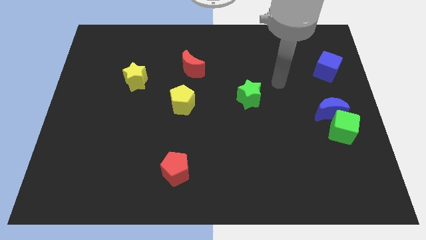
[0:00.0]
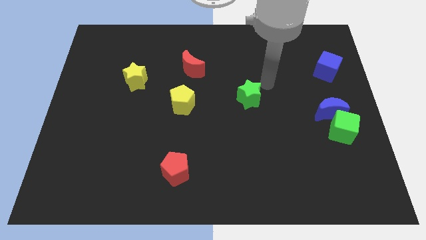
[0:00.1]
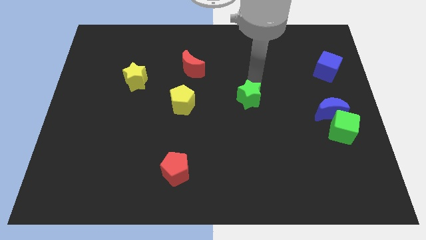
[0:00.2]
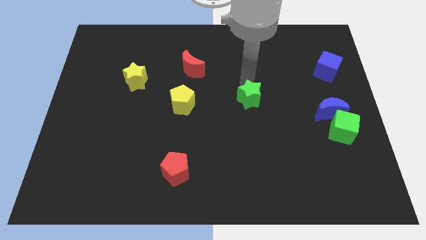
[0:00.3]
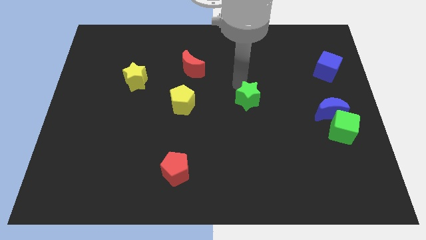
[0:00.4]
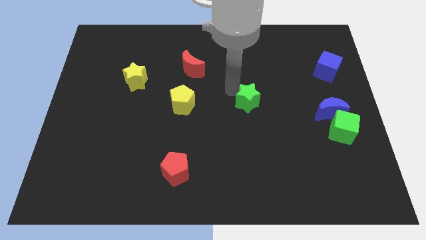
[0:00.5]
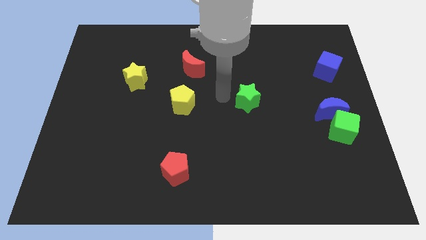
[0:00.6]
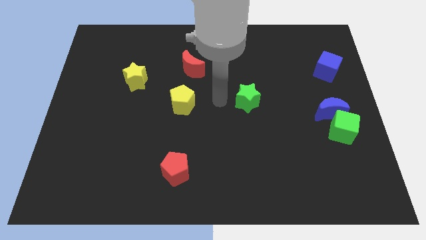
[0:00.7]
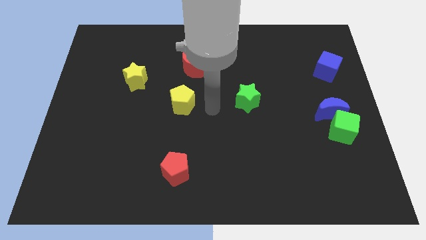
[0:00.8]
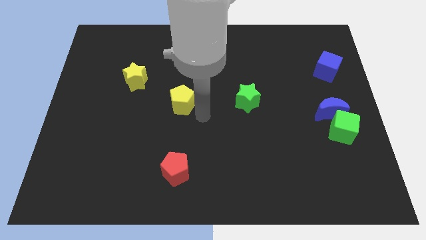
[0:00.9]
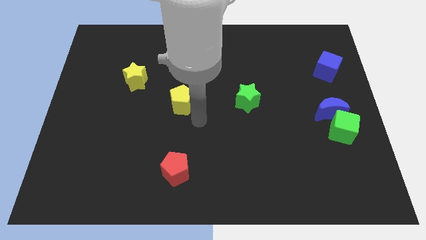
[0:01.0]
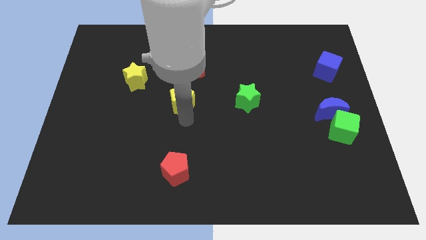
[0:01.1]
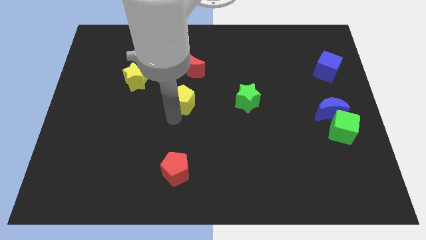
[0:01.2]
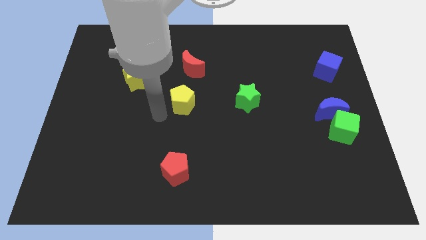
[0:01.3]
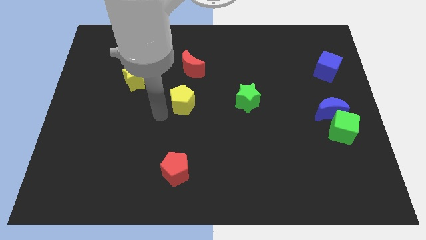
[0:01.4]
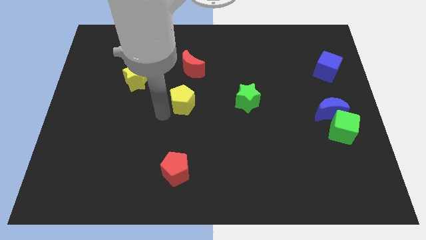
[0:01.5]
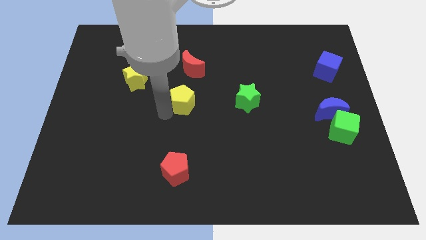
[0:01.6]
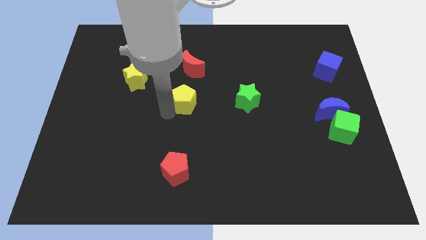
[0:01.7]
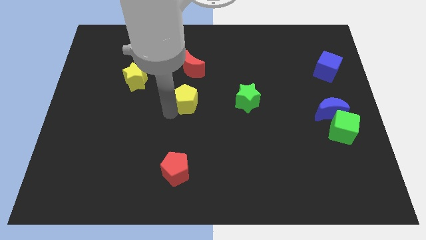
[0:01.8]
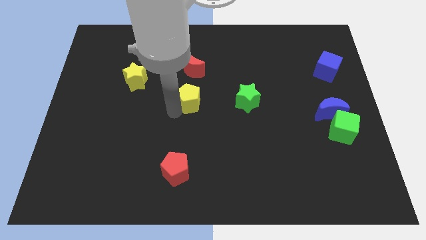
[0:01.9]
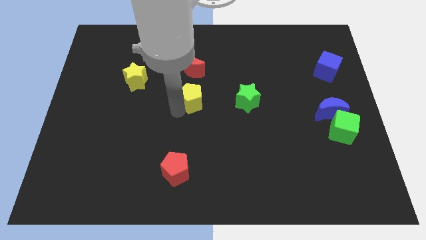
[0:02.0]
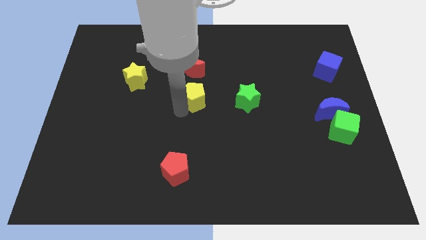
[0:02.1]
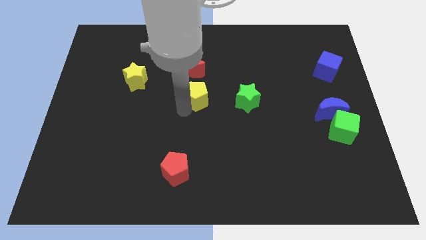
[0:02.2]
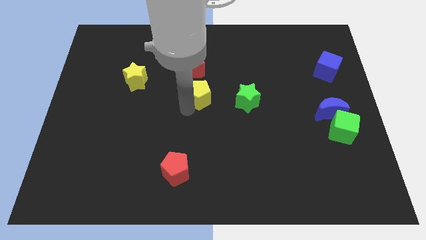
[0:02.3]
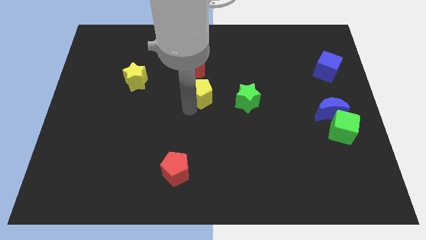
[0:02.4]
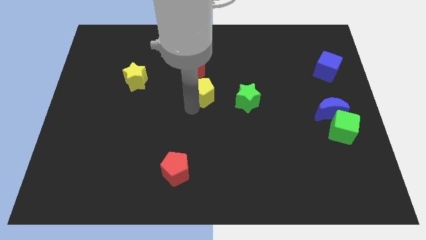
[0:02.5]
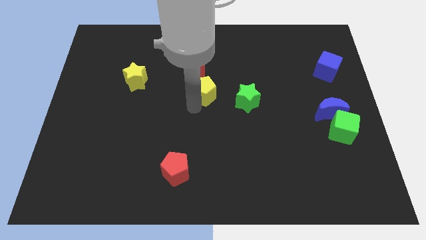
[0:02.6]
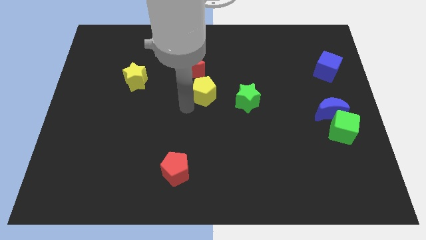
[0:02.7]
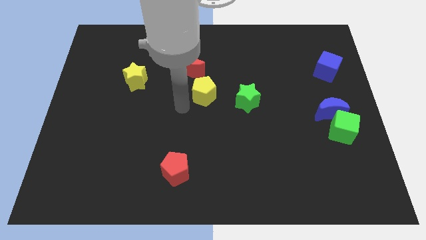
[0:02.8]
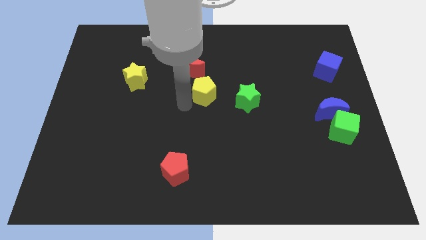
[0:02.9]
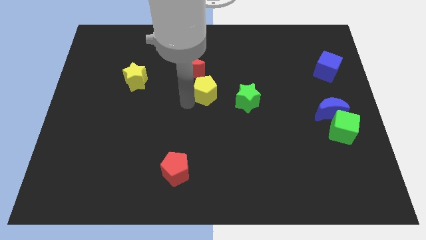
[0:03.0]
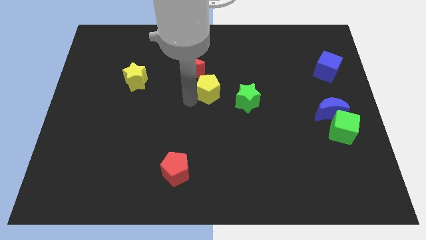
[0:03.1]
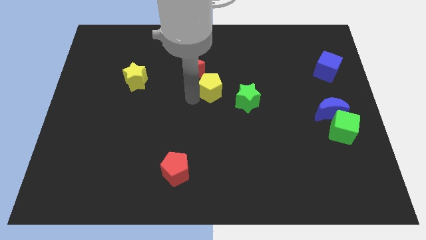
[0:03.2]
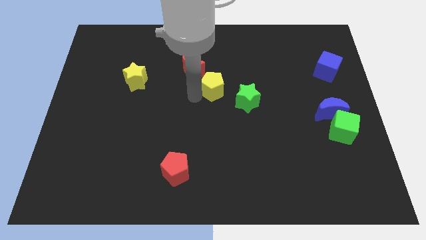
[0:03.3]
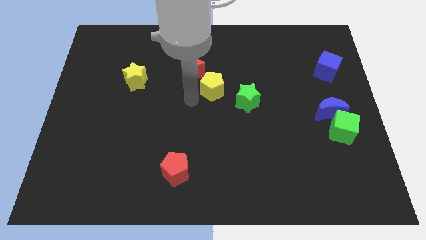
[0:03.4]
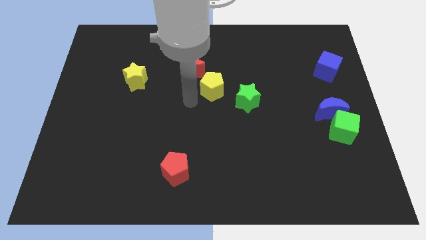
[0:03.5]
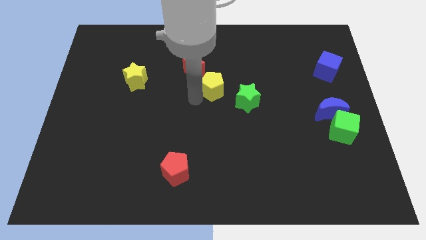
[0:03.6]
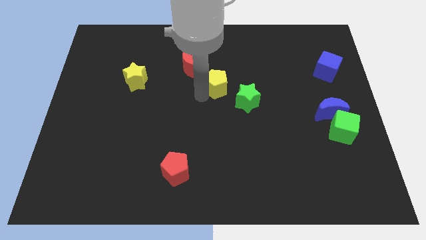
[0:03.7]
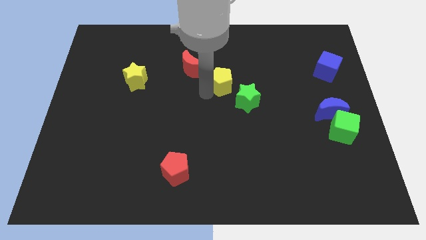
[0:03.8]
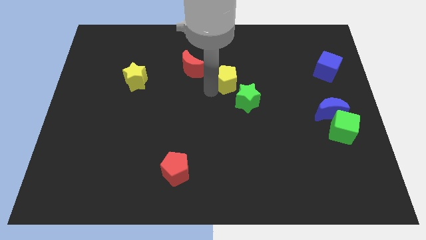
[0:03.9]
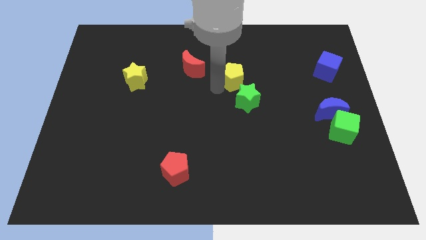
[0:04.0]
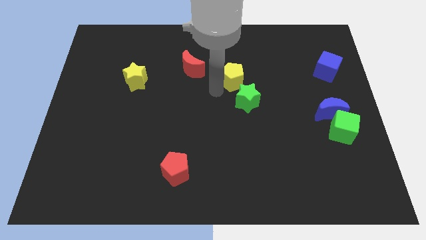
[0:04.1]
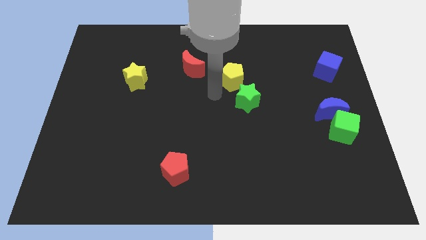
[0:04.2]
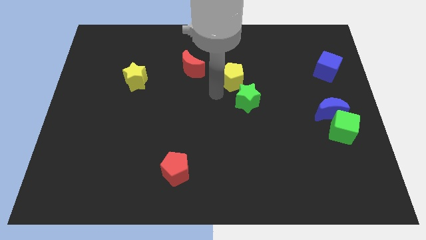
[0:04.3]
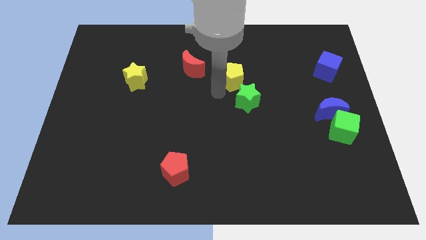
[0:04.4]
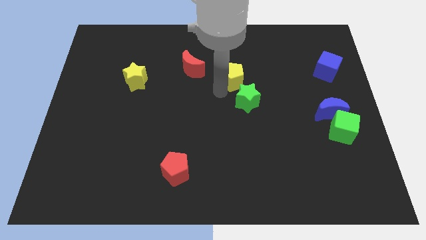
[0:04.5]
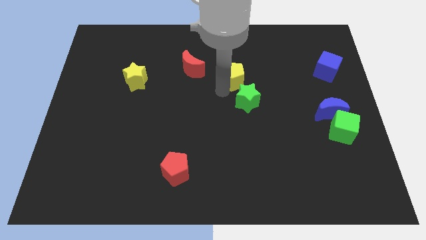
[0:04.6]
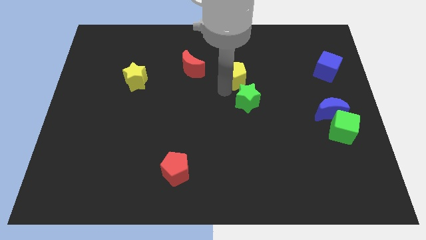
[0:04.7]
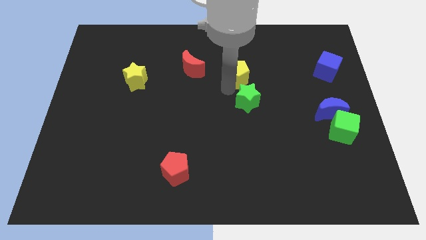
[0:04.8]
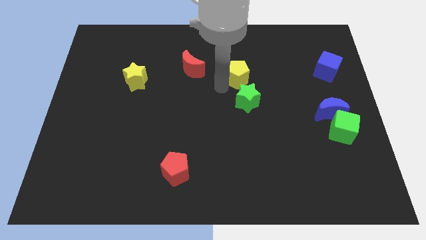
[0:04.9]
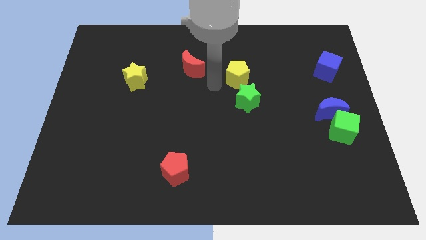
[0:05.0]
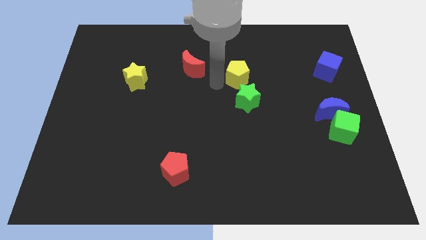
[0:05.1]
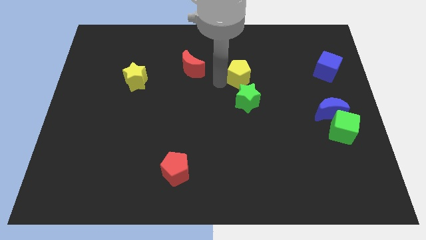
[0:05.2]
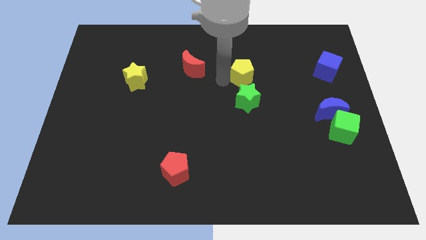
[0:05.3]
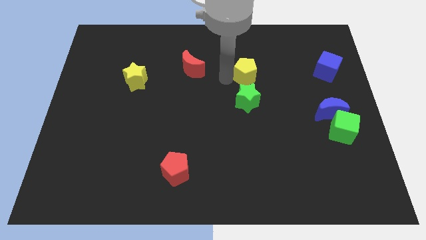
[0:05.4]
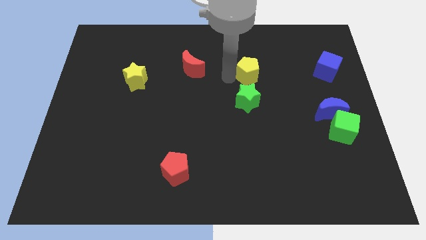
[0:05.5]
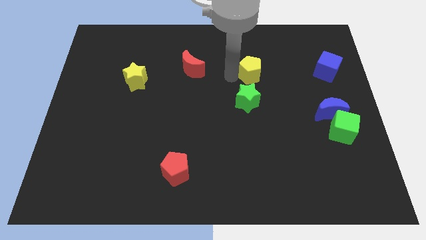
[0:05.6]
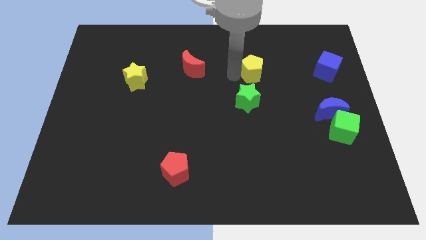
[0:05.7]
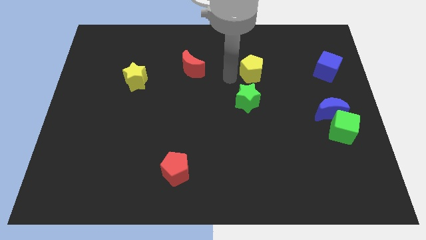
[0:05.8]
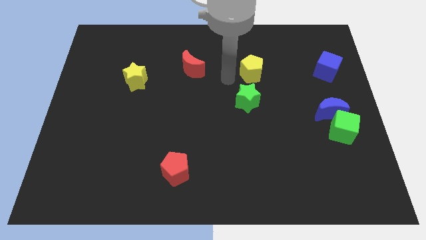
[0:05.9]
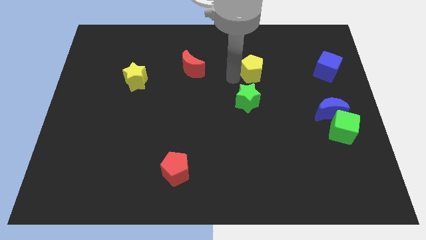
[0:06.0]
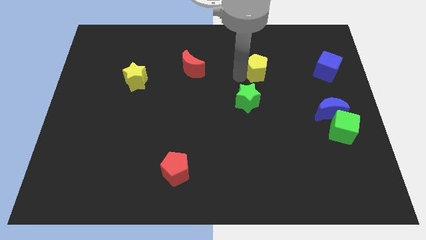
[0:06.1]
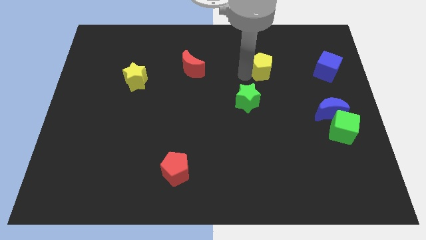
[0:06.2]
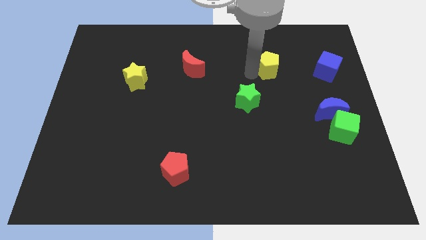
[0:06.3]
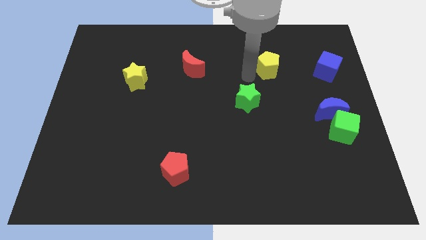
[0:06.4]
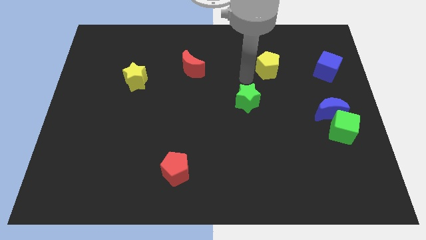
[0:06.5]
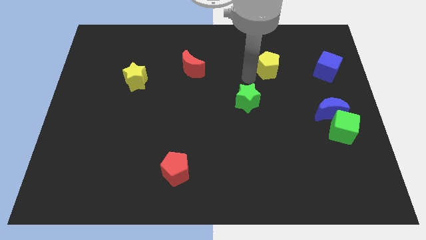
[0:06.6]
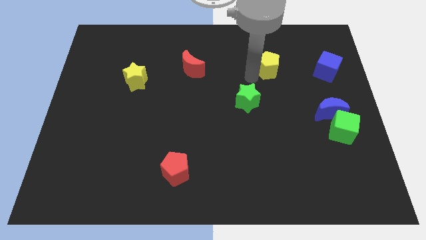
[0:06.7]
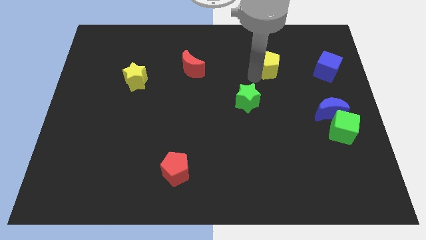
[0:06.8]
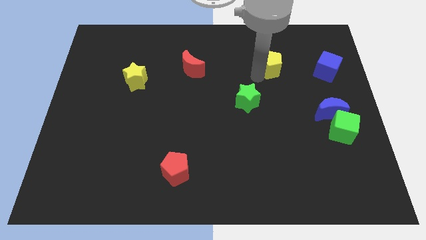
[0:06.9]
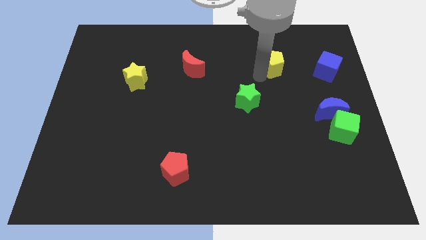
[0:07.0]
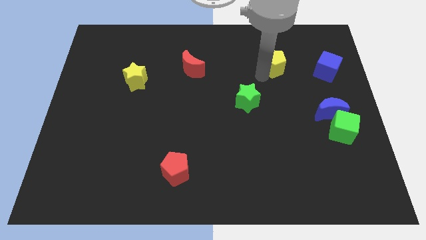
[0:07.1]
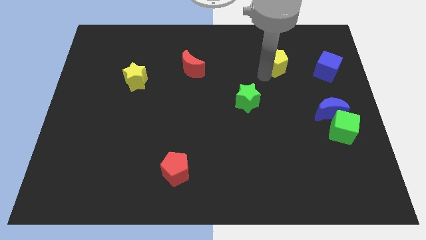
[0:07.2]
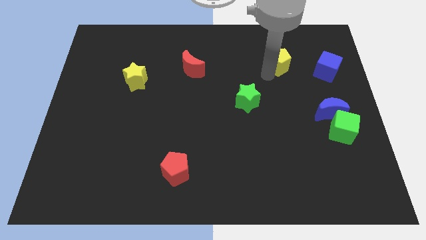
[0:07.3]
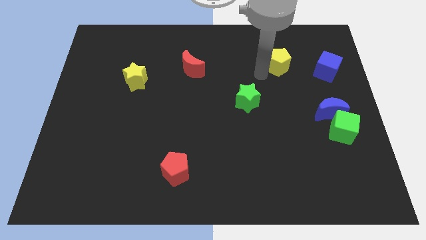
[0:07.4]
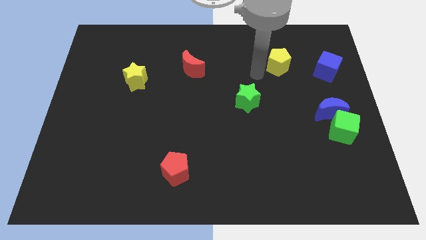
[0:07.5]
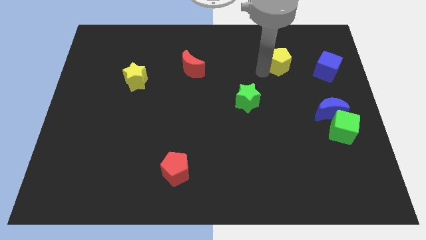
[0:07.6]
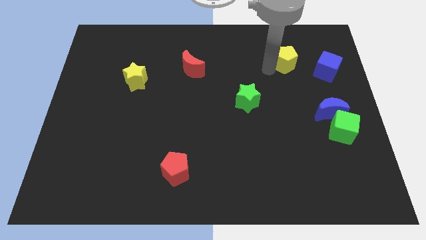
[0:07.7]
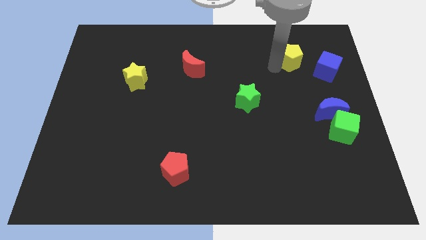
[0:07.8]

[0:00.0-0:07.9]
slide the yellow pentagon to the top left of the blue cube
